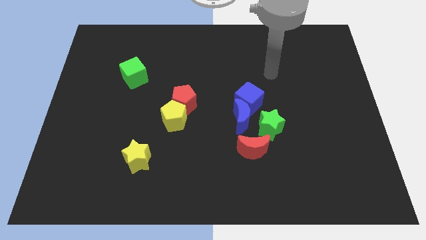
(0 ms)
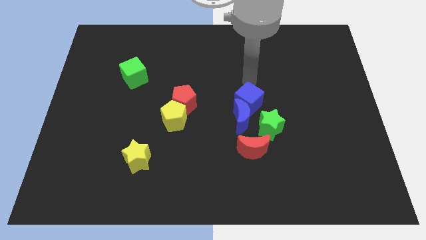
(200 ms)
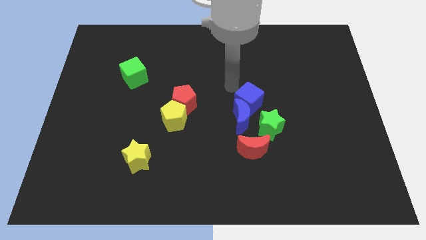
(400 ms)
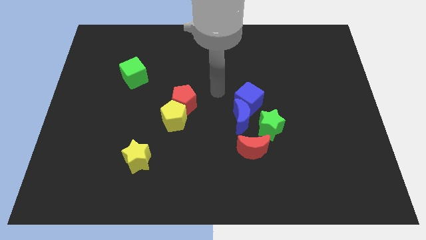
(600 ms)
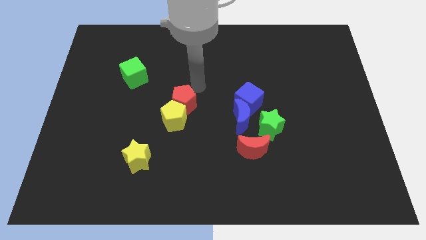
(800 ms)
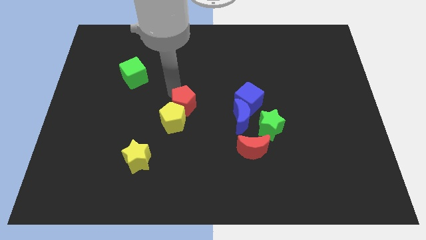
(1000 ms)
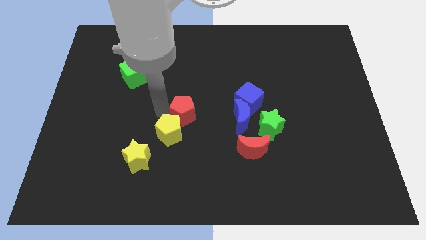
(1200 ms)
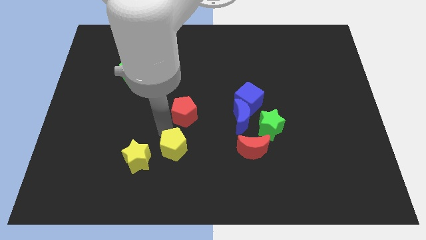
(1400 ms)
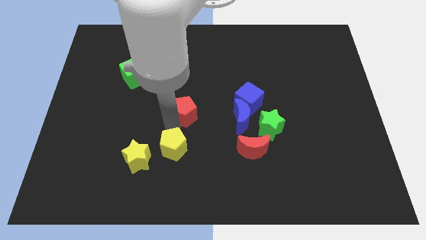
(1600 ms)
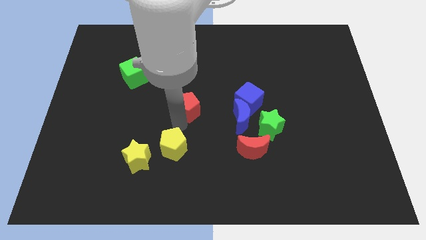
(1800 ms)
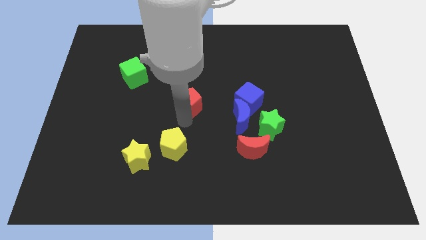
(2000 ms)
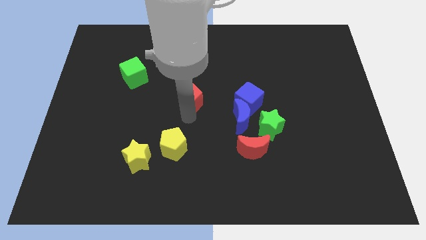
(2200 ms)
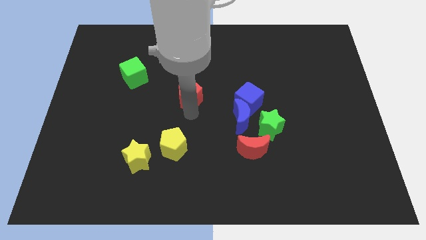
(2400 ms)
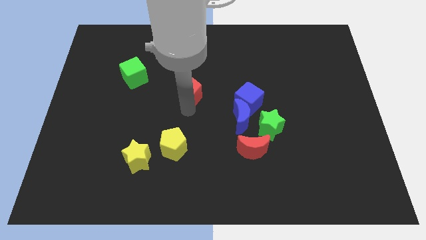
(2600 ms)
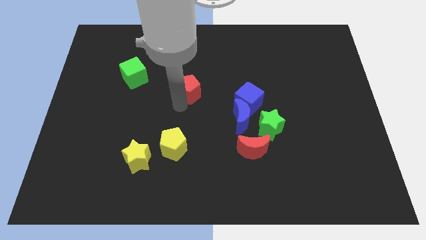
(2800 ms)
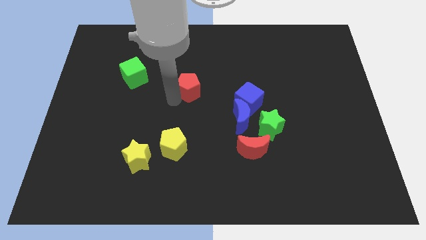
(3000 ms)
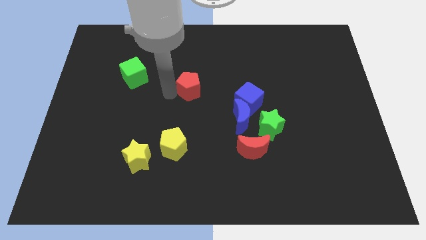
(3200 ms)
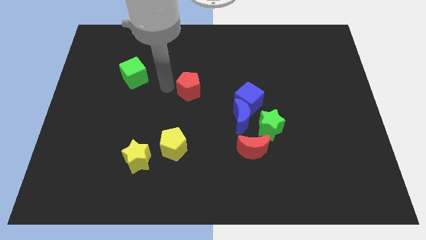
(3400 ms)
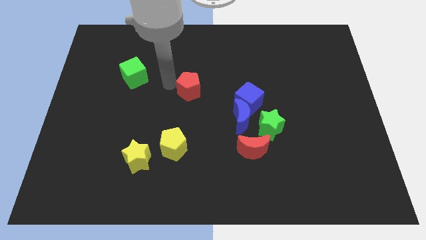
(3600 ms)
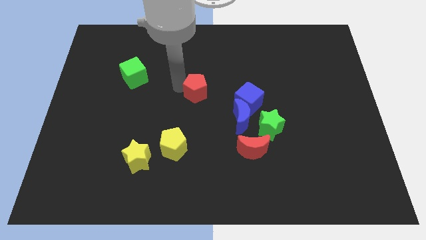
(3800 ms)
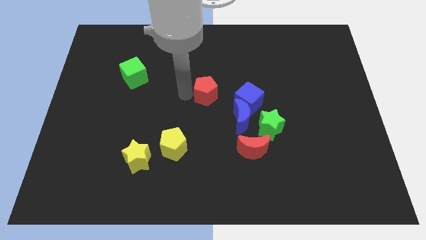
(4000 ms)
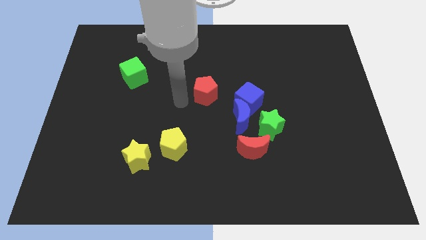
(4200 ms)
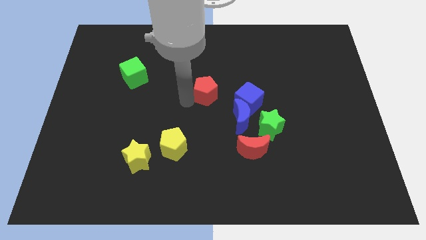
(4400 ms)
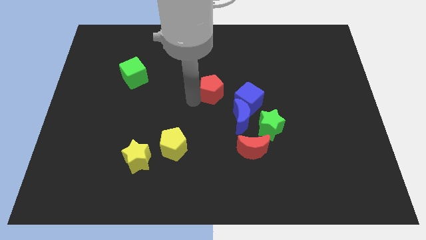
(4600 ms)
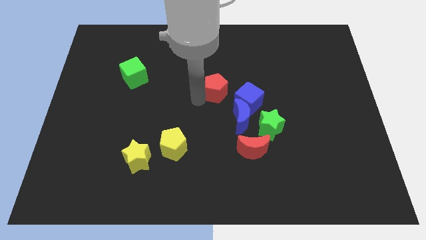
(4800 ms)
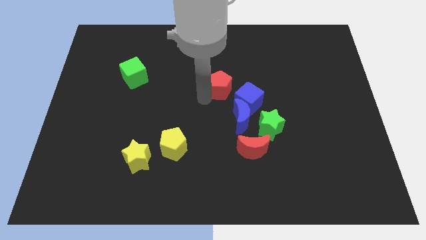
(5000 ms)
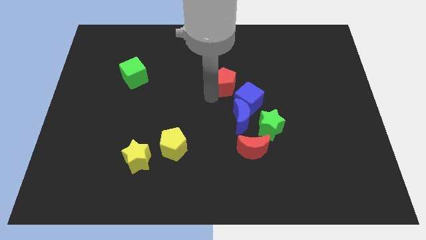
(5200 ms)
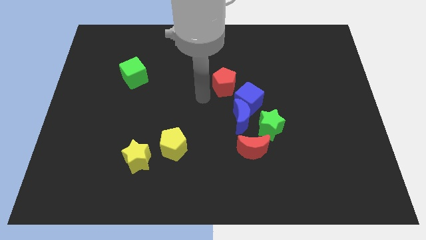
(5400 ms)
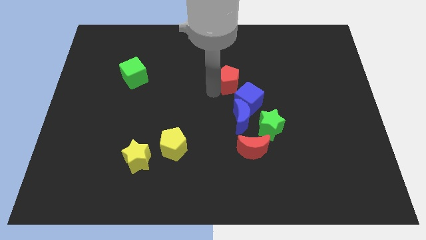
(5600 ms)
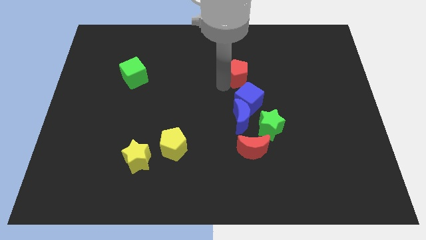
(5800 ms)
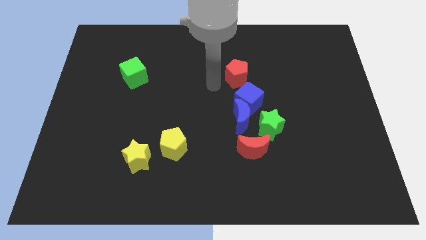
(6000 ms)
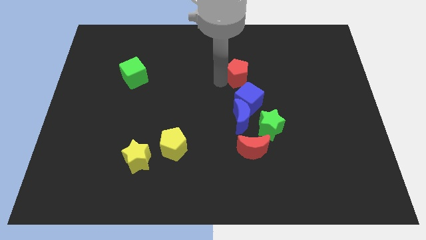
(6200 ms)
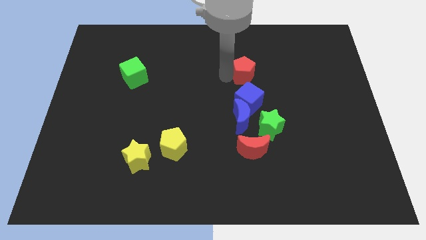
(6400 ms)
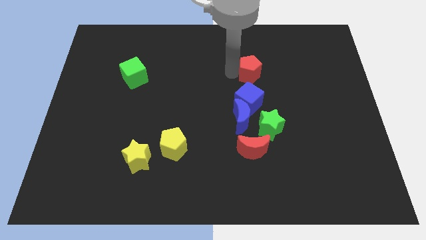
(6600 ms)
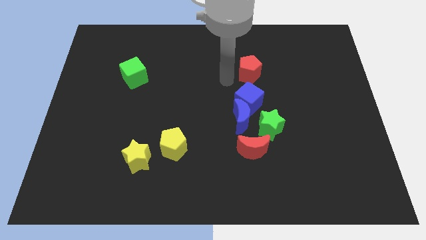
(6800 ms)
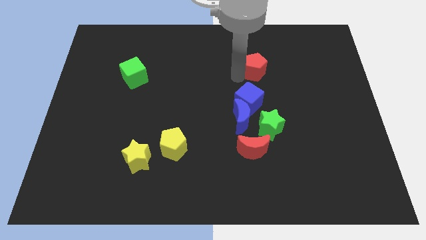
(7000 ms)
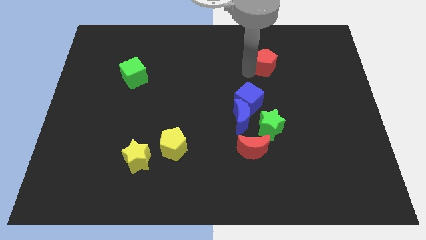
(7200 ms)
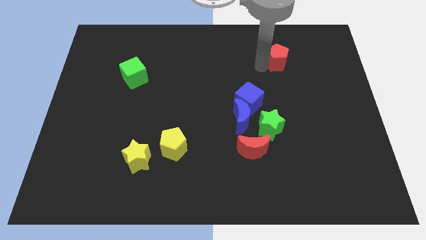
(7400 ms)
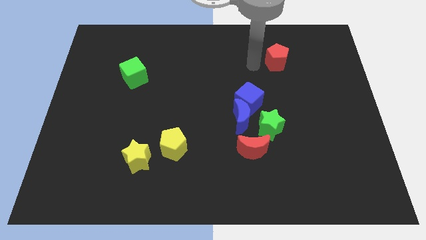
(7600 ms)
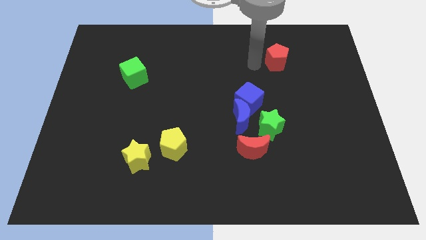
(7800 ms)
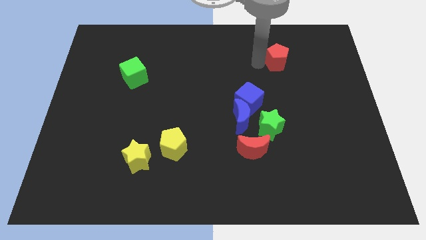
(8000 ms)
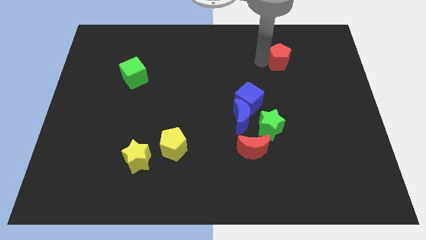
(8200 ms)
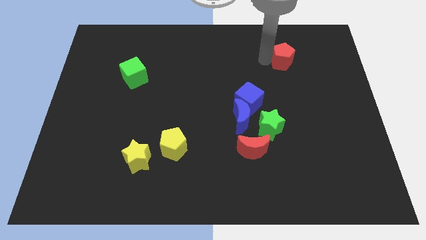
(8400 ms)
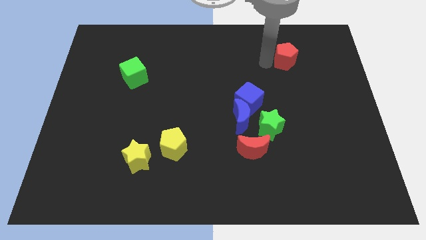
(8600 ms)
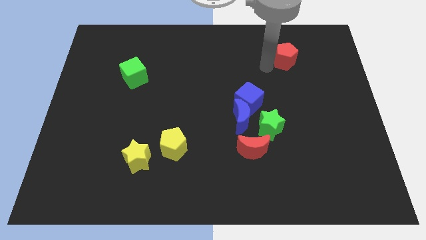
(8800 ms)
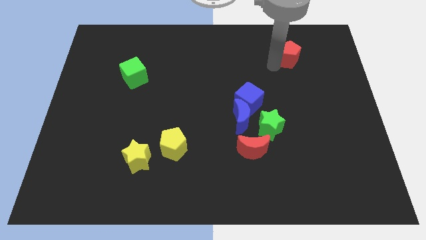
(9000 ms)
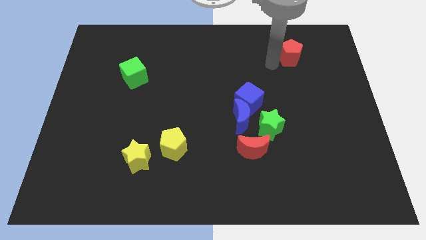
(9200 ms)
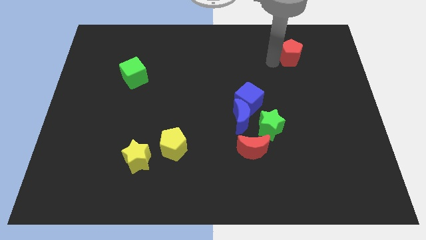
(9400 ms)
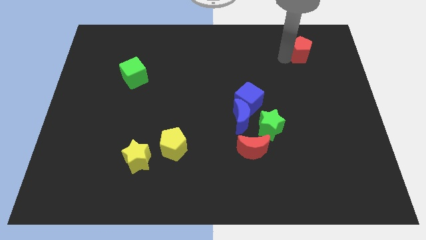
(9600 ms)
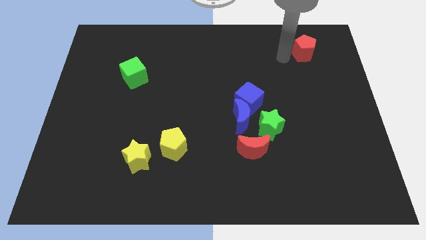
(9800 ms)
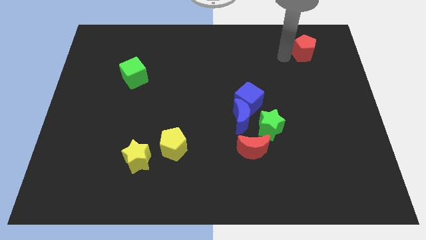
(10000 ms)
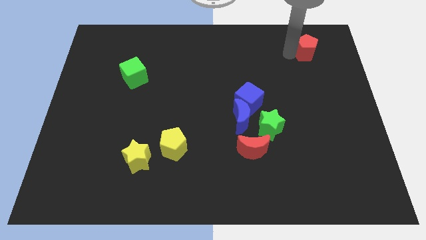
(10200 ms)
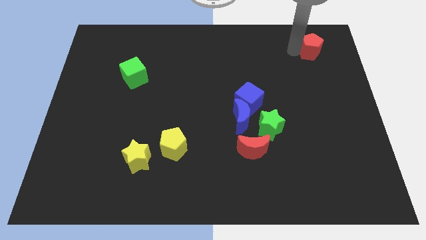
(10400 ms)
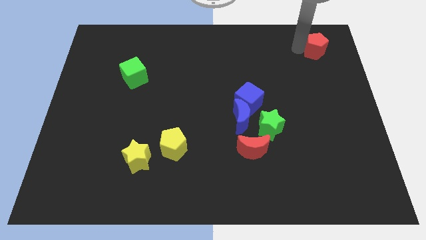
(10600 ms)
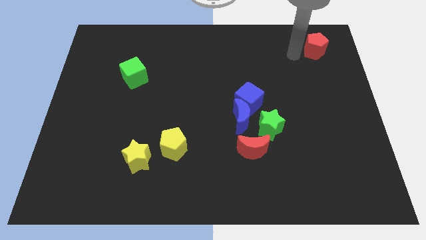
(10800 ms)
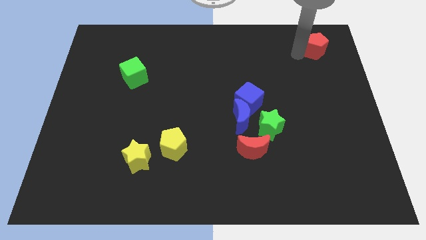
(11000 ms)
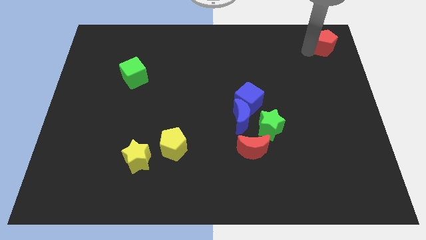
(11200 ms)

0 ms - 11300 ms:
put the red pentagon to the top right corner
